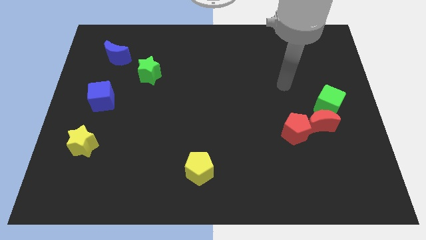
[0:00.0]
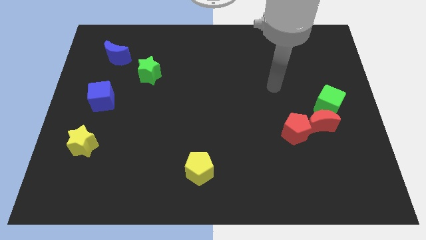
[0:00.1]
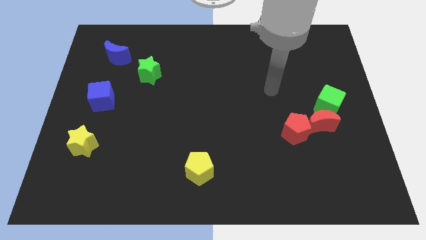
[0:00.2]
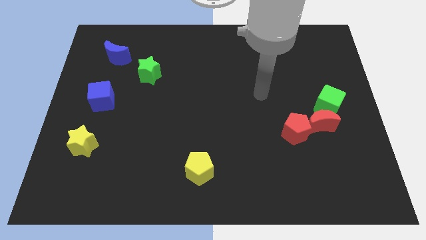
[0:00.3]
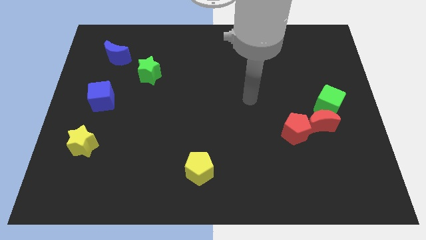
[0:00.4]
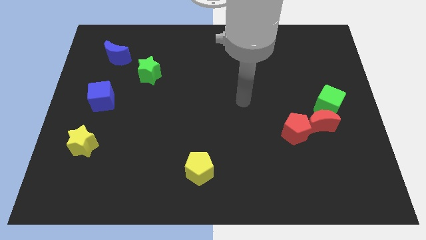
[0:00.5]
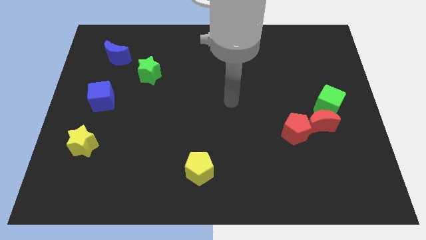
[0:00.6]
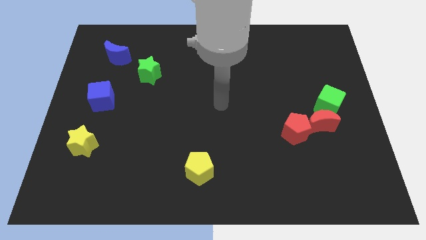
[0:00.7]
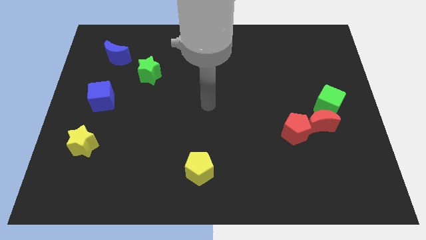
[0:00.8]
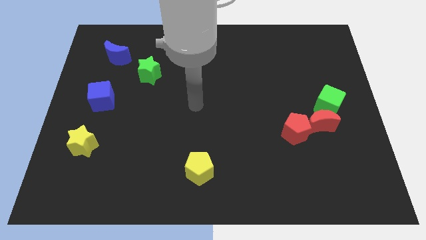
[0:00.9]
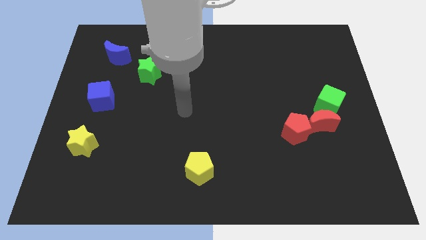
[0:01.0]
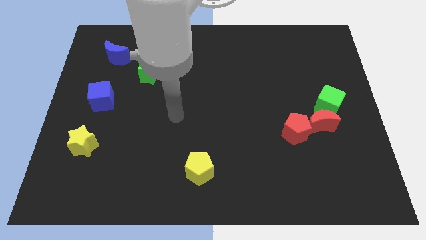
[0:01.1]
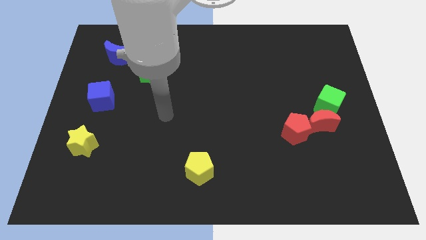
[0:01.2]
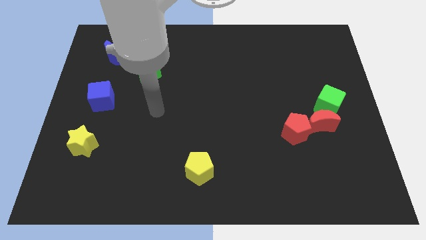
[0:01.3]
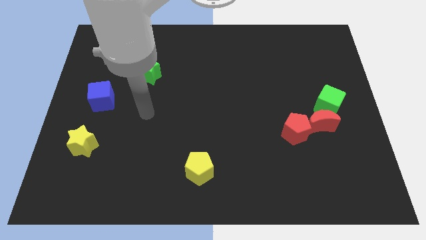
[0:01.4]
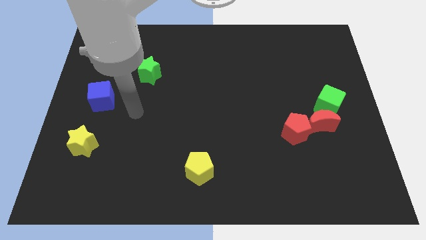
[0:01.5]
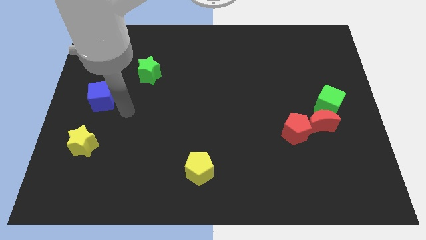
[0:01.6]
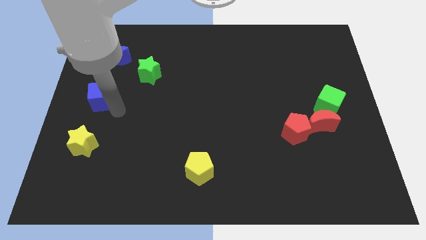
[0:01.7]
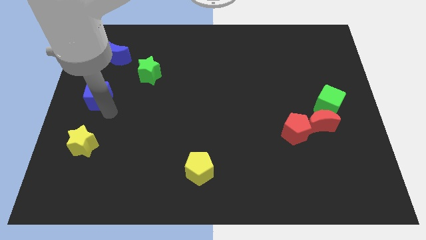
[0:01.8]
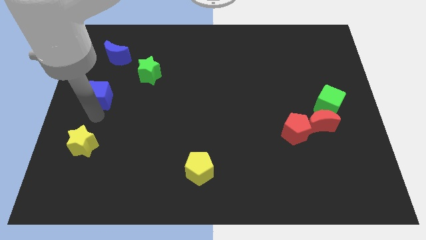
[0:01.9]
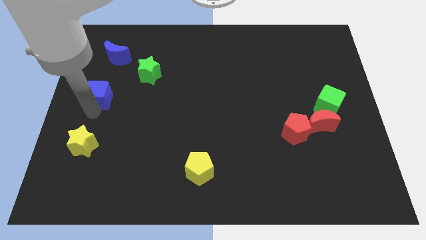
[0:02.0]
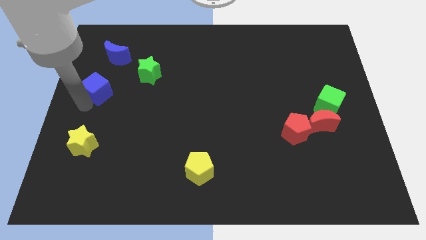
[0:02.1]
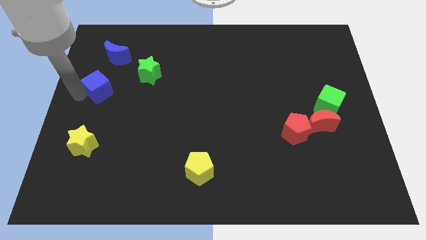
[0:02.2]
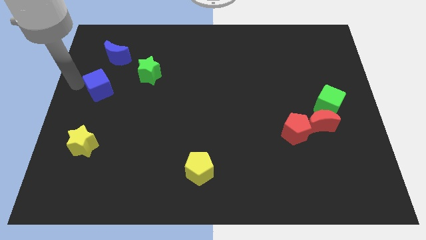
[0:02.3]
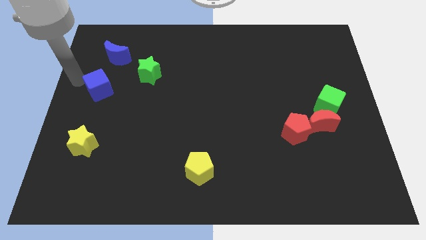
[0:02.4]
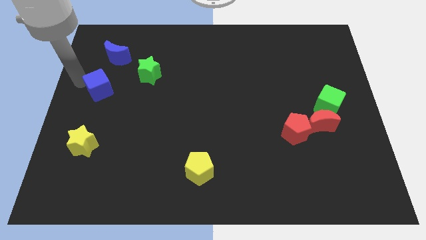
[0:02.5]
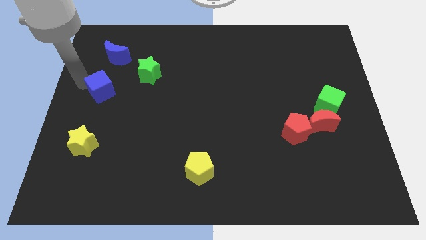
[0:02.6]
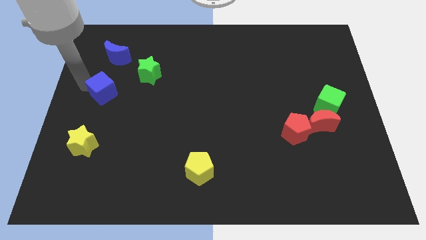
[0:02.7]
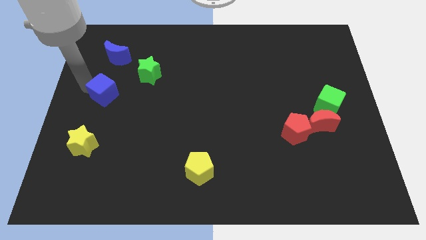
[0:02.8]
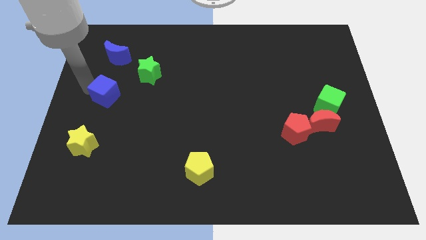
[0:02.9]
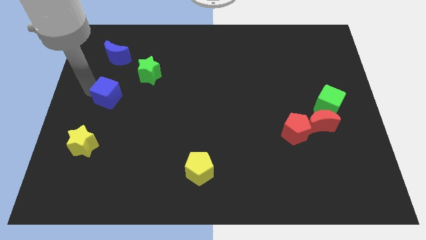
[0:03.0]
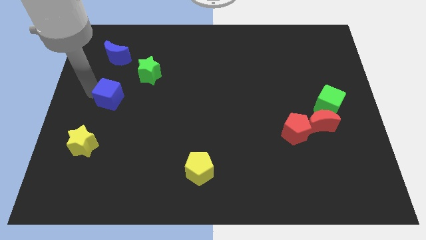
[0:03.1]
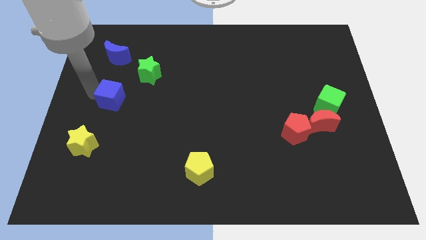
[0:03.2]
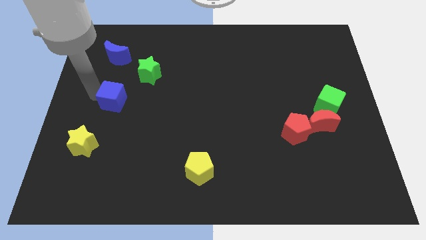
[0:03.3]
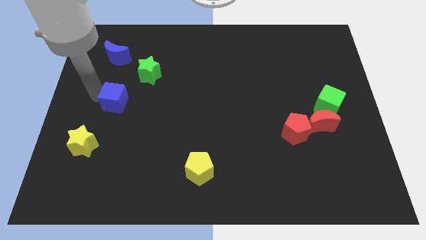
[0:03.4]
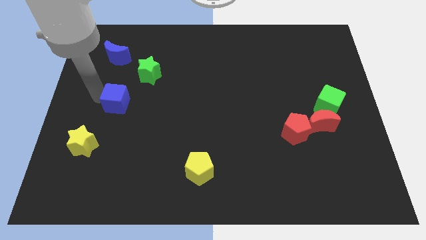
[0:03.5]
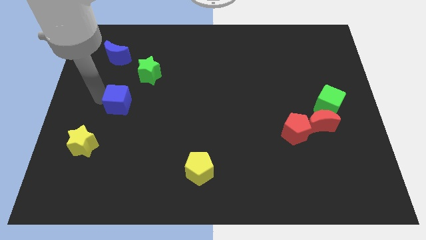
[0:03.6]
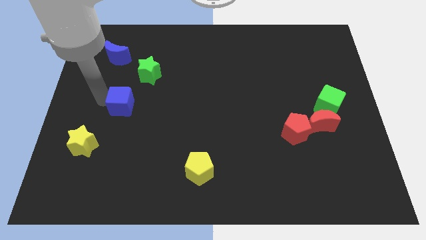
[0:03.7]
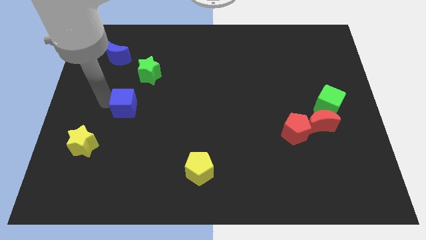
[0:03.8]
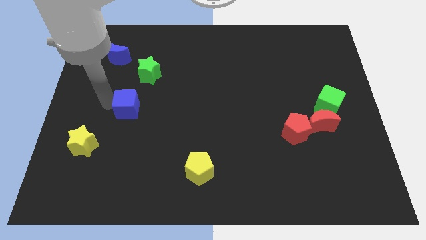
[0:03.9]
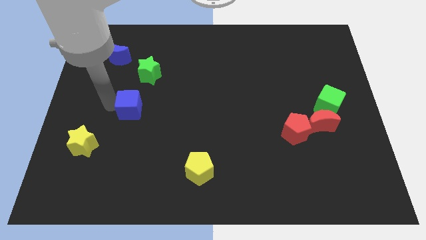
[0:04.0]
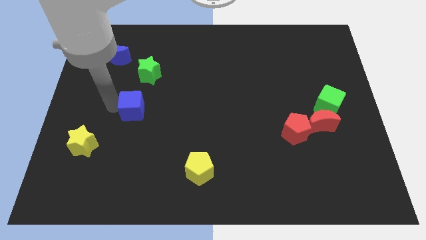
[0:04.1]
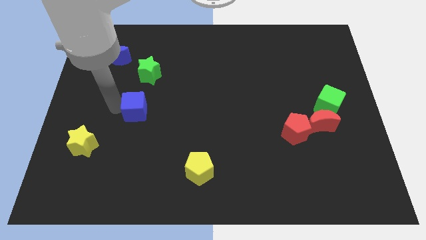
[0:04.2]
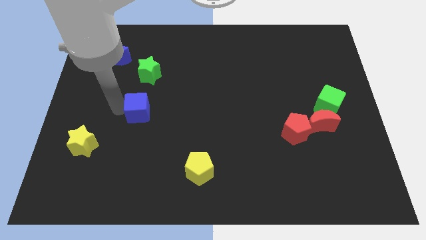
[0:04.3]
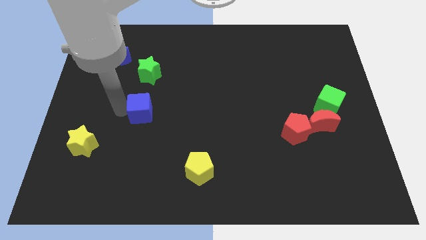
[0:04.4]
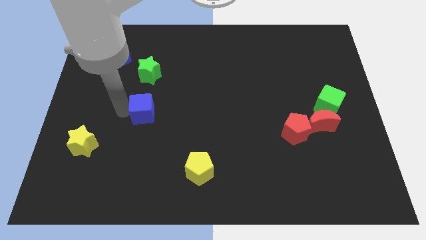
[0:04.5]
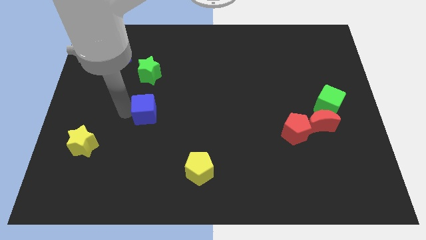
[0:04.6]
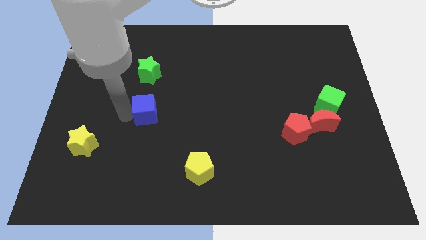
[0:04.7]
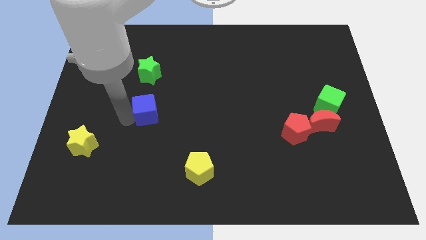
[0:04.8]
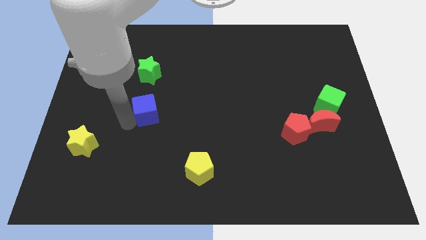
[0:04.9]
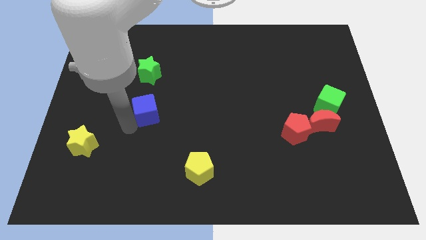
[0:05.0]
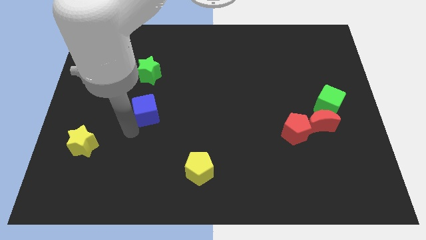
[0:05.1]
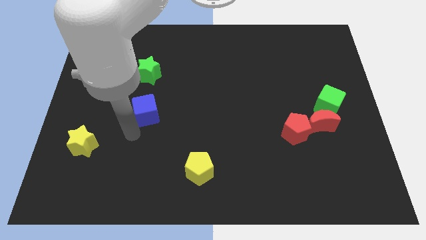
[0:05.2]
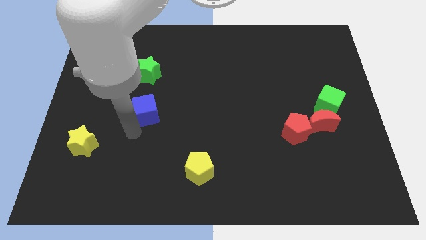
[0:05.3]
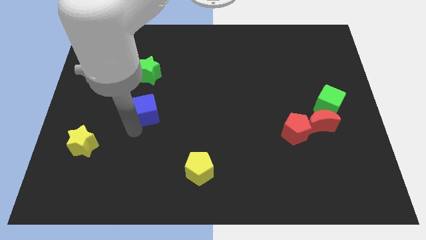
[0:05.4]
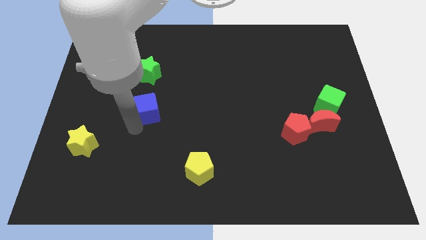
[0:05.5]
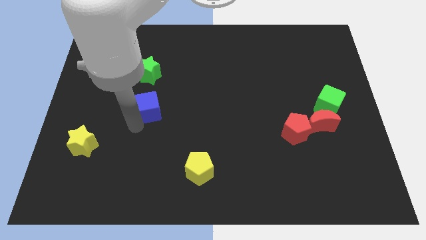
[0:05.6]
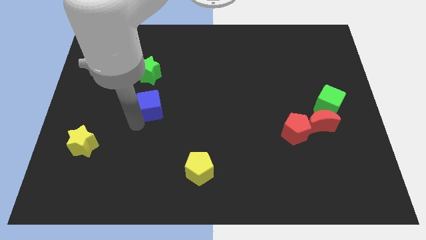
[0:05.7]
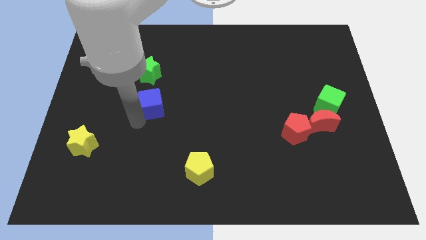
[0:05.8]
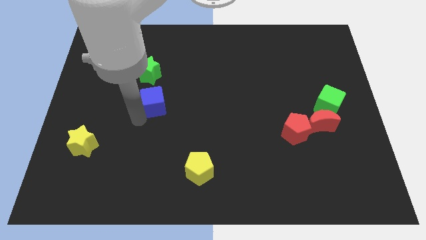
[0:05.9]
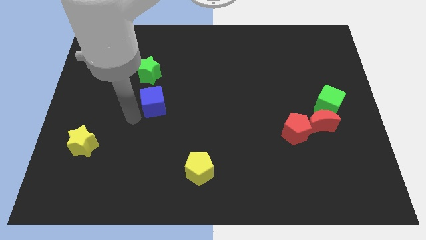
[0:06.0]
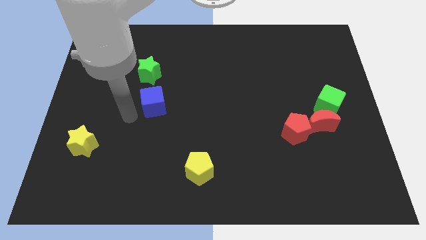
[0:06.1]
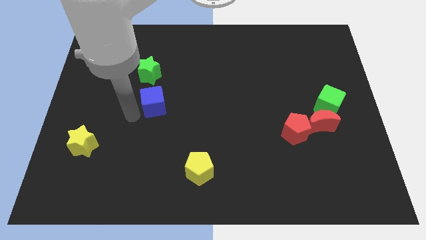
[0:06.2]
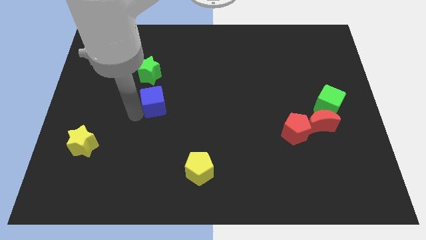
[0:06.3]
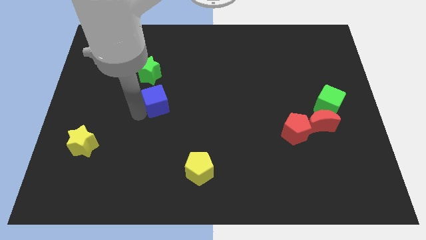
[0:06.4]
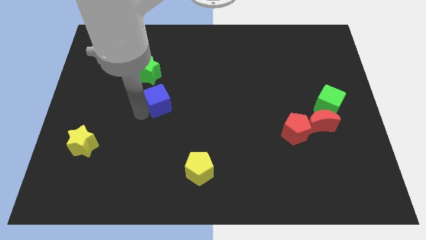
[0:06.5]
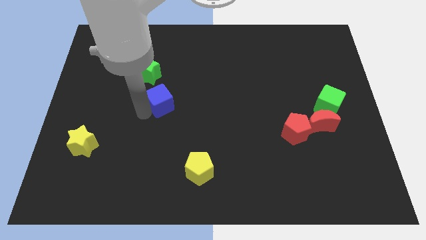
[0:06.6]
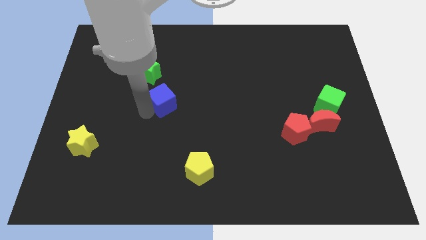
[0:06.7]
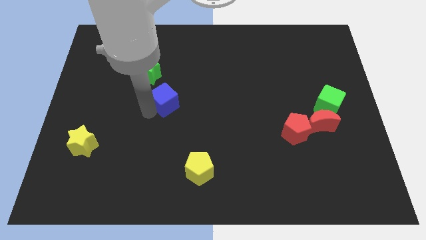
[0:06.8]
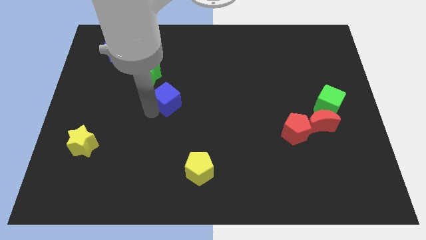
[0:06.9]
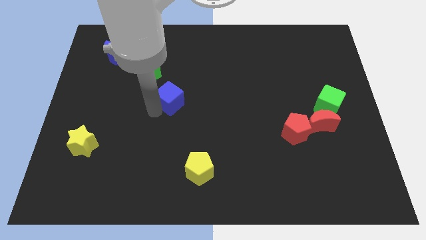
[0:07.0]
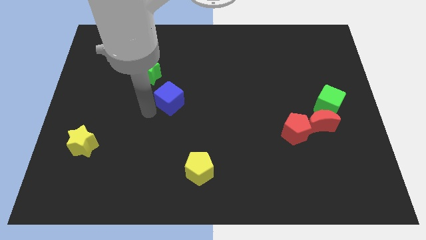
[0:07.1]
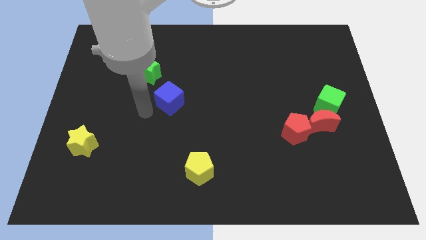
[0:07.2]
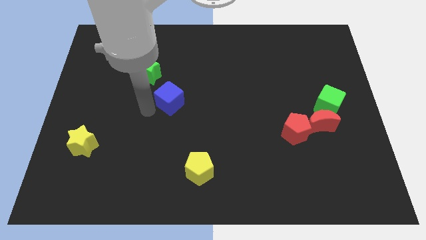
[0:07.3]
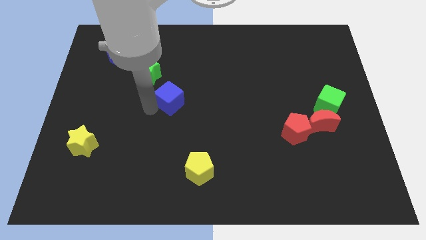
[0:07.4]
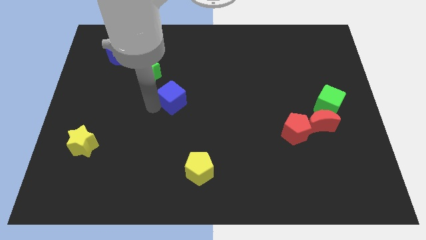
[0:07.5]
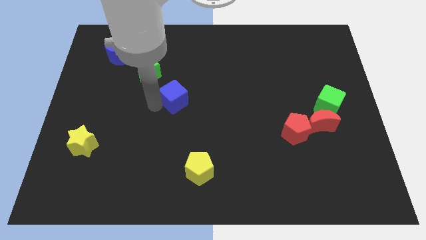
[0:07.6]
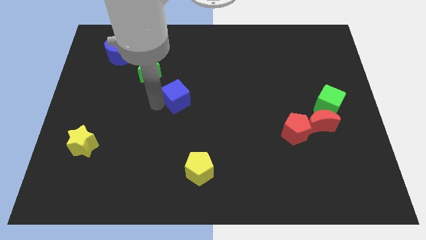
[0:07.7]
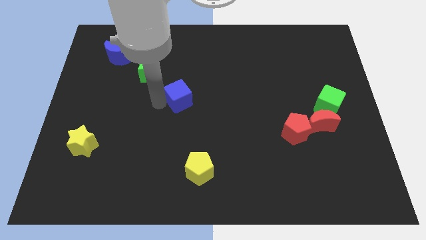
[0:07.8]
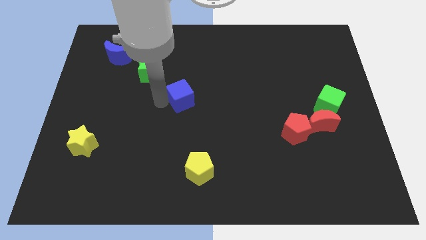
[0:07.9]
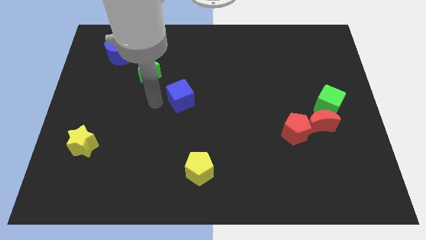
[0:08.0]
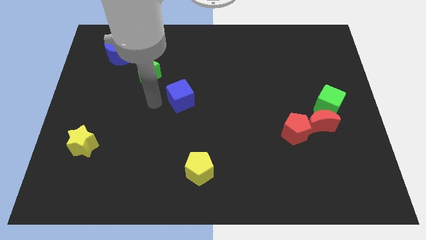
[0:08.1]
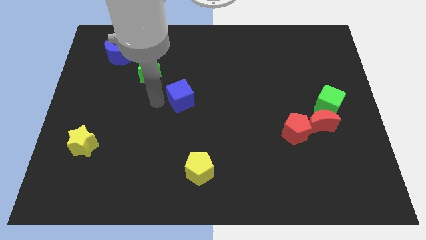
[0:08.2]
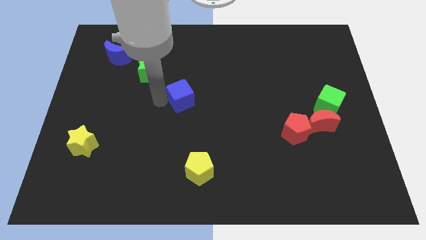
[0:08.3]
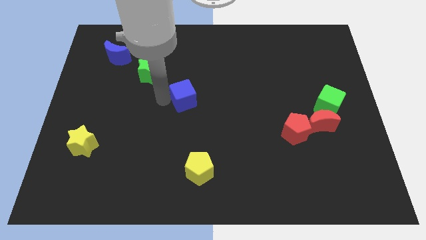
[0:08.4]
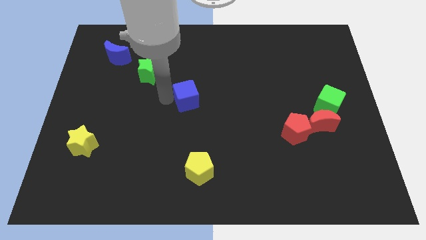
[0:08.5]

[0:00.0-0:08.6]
slide the blue cube right
